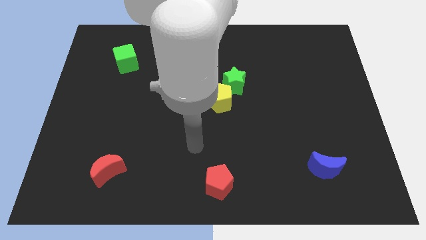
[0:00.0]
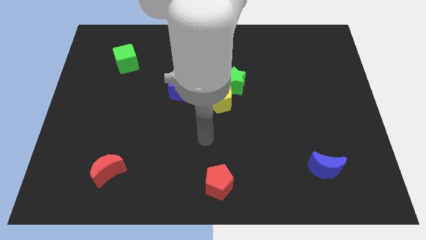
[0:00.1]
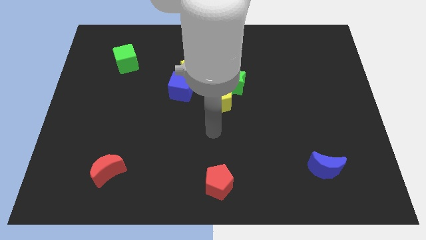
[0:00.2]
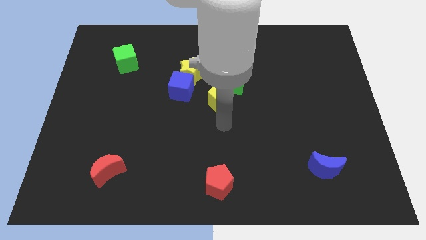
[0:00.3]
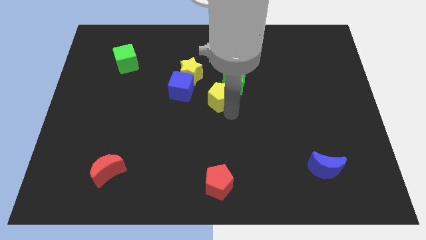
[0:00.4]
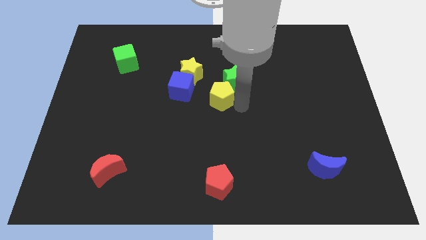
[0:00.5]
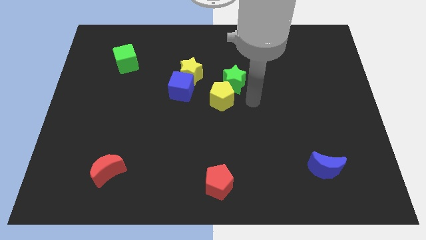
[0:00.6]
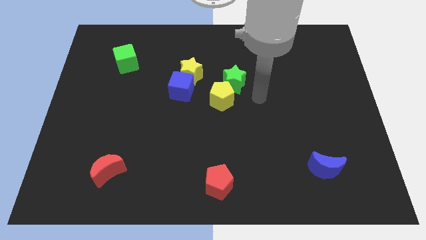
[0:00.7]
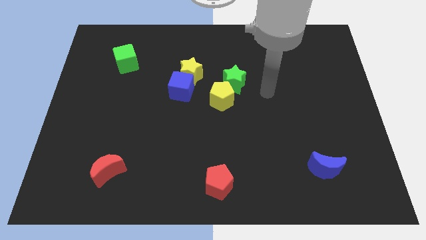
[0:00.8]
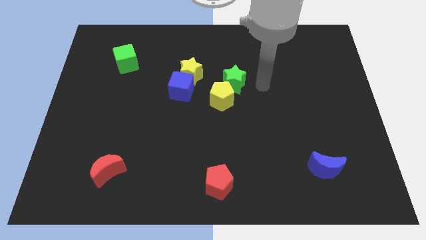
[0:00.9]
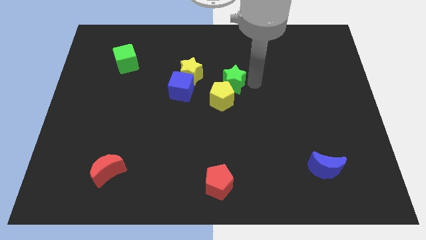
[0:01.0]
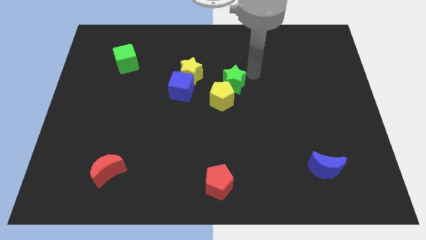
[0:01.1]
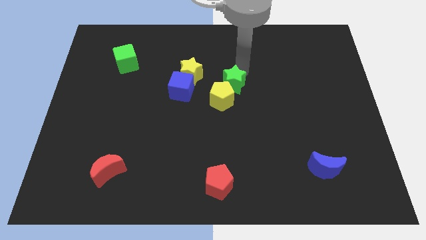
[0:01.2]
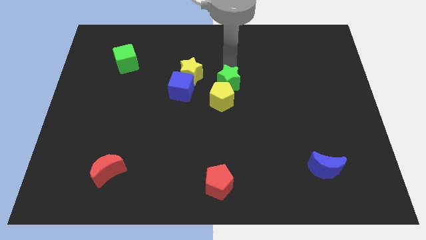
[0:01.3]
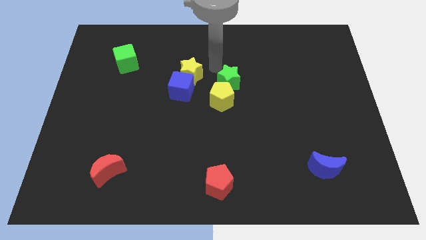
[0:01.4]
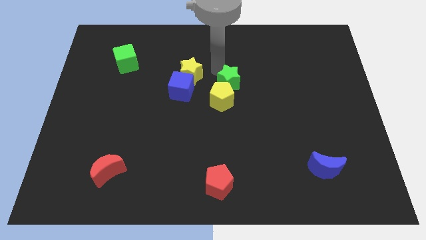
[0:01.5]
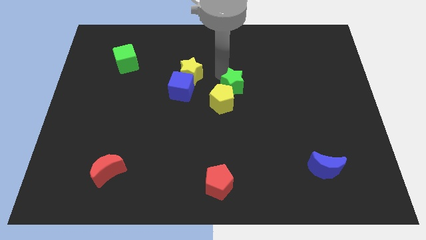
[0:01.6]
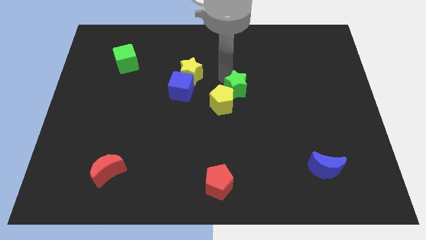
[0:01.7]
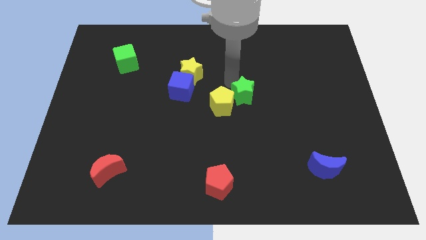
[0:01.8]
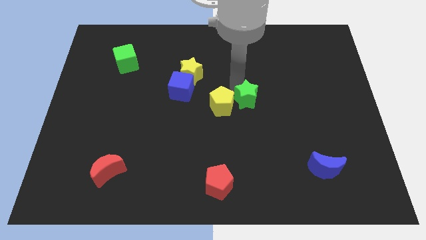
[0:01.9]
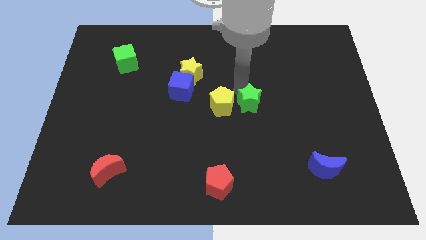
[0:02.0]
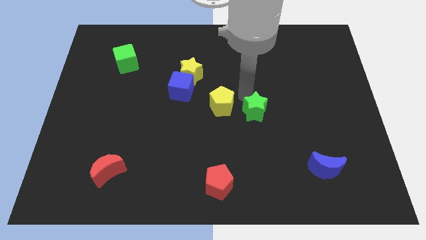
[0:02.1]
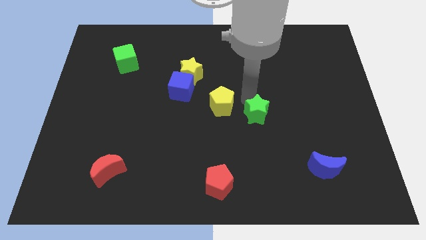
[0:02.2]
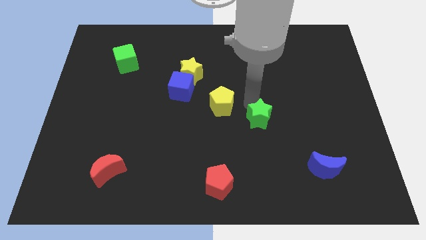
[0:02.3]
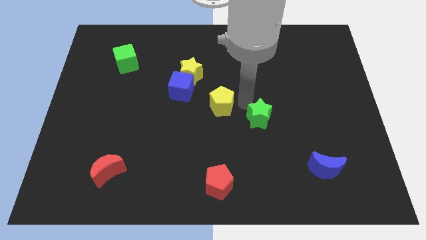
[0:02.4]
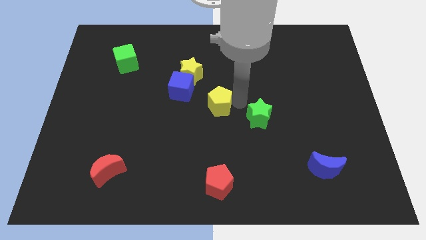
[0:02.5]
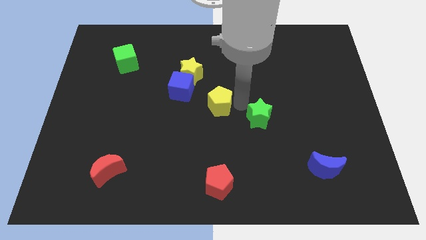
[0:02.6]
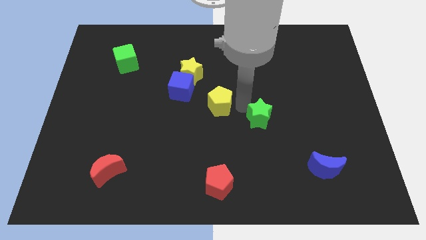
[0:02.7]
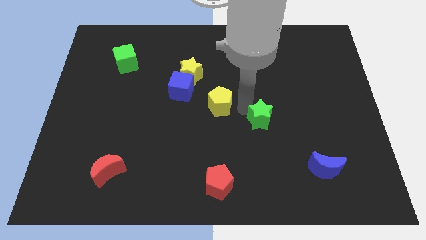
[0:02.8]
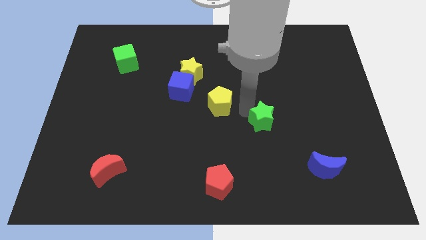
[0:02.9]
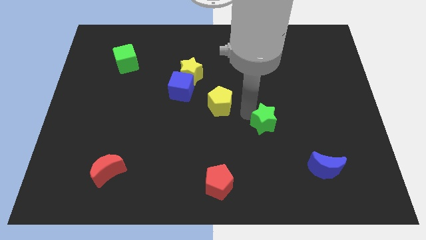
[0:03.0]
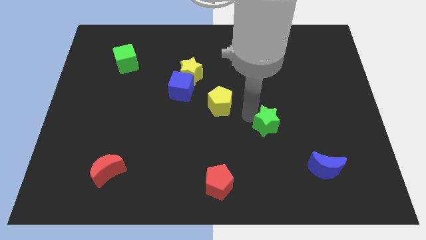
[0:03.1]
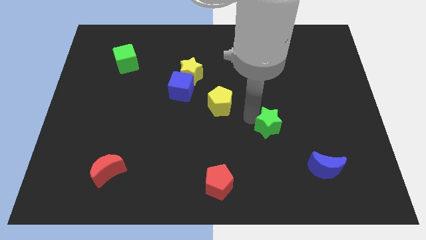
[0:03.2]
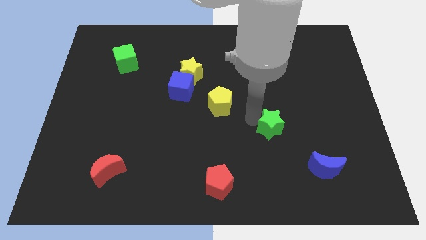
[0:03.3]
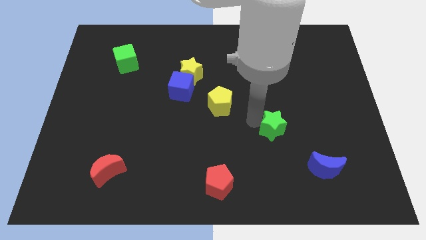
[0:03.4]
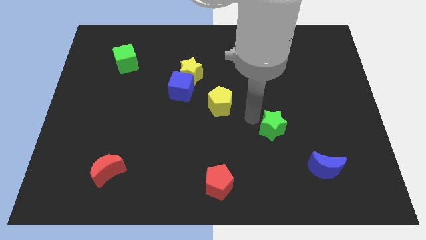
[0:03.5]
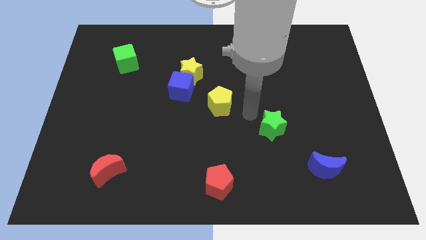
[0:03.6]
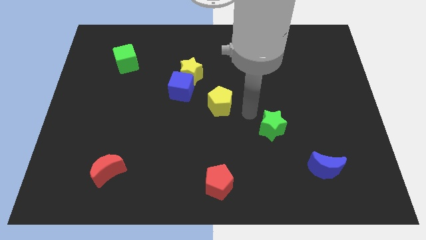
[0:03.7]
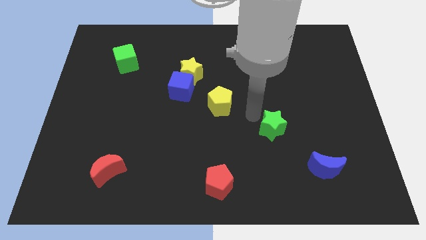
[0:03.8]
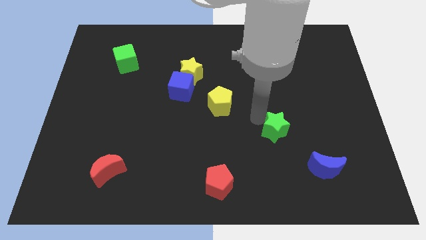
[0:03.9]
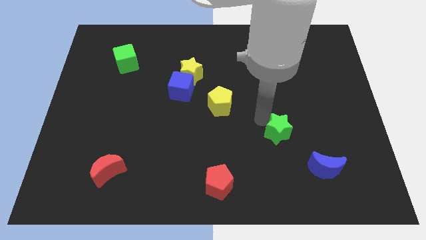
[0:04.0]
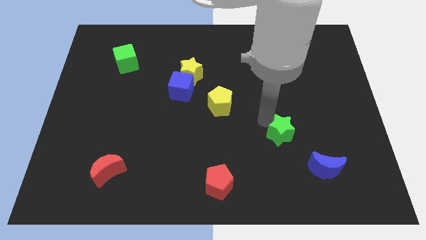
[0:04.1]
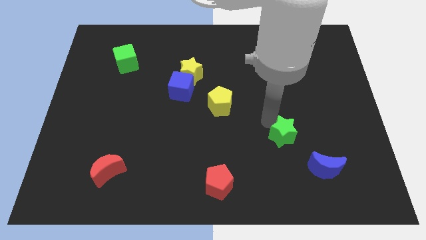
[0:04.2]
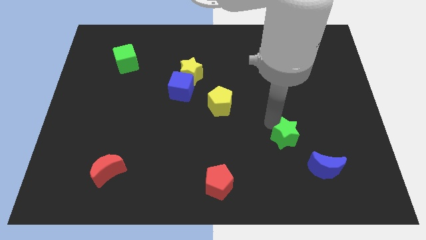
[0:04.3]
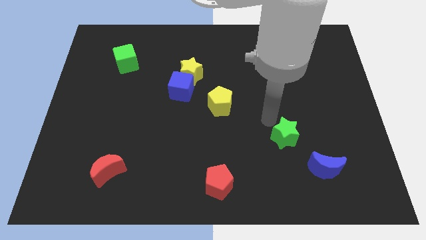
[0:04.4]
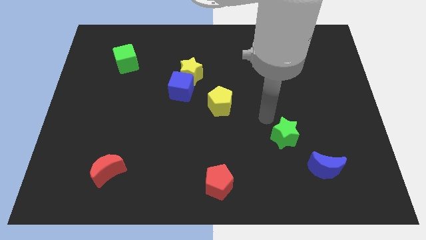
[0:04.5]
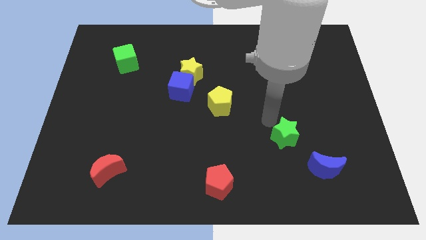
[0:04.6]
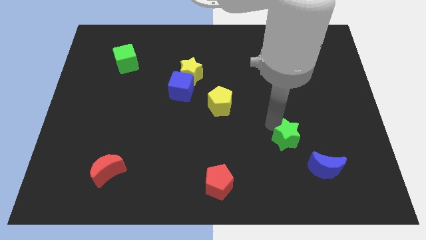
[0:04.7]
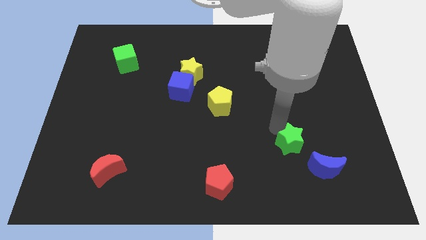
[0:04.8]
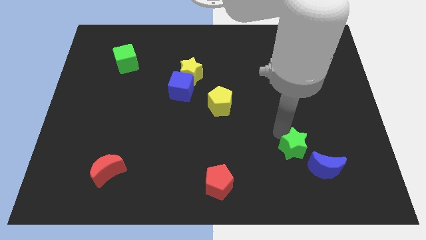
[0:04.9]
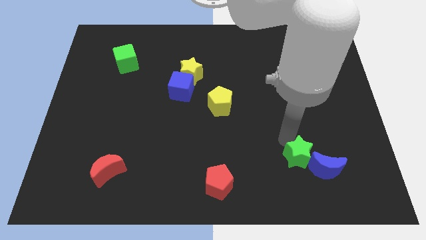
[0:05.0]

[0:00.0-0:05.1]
move the green star towards the blue moon
